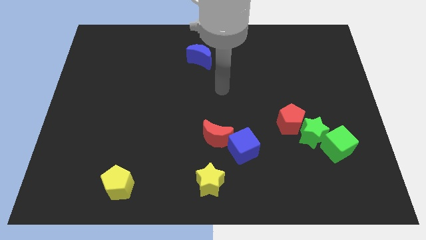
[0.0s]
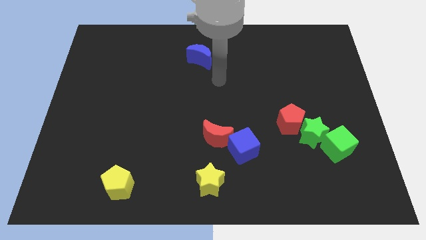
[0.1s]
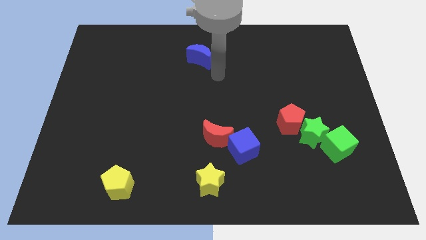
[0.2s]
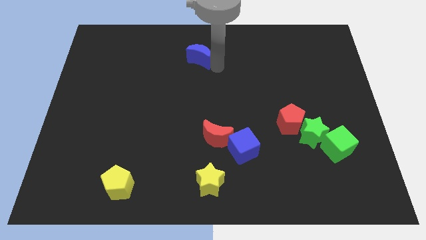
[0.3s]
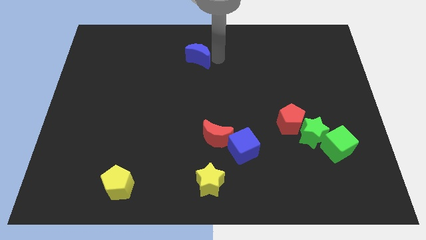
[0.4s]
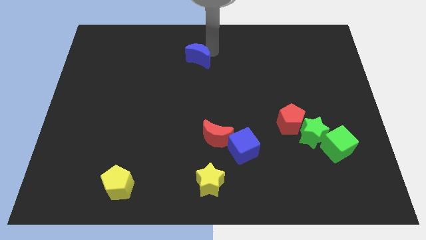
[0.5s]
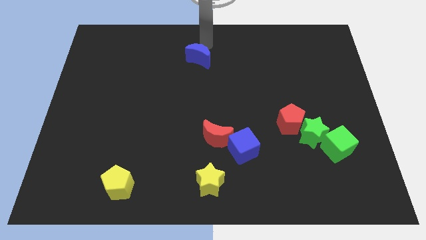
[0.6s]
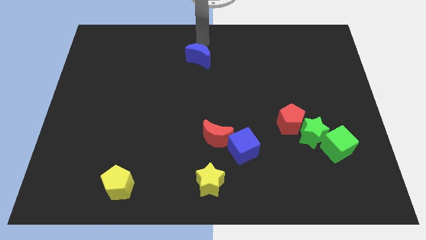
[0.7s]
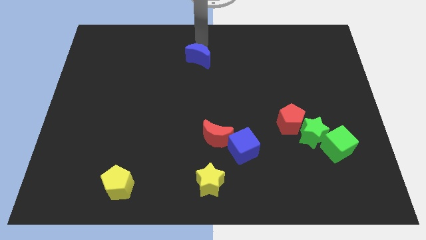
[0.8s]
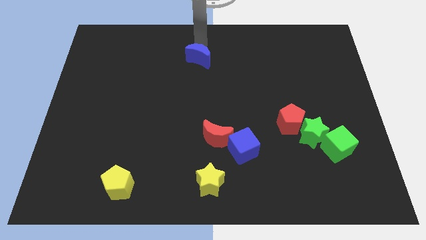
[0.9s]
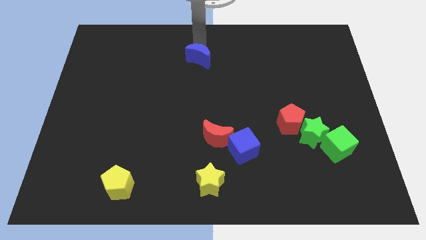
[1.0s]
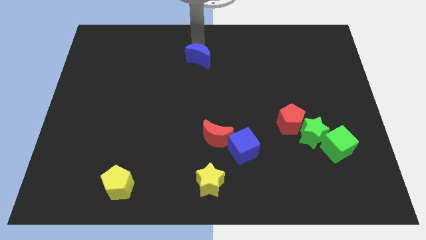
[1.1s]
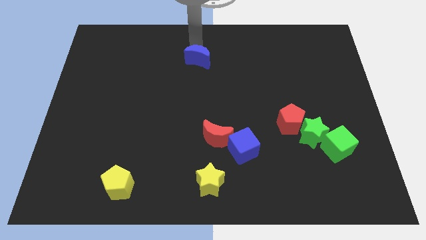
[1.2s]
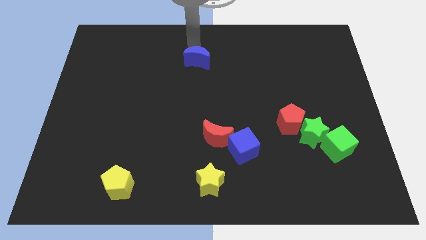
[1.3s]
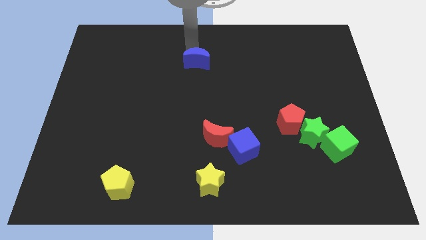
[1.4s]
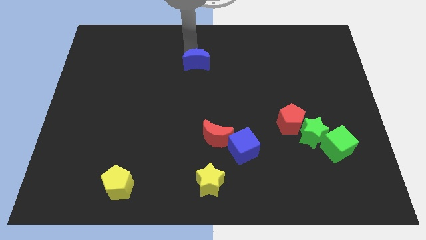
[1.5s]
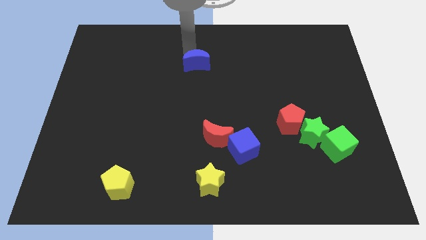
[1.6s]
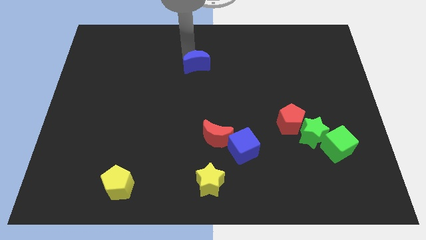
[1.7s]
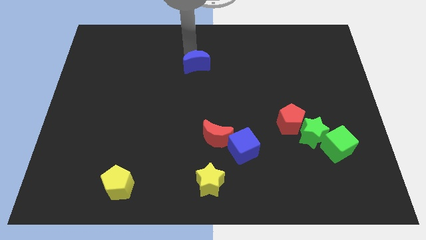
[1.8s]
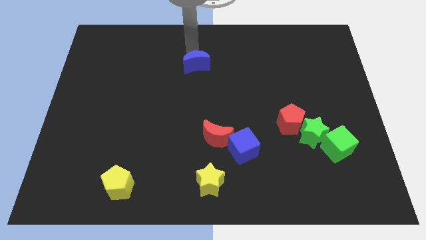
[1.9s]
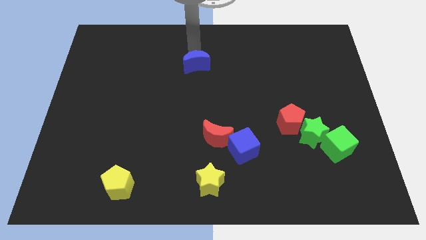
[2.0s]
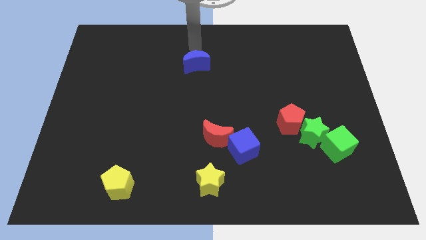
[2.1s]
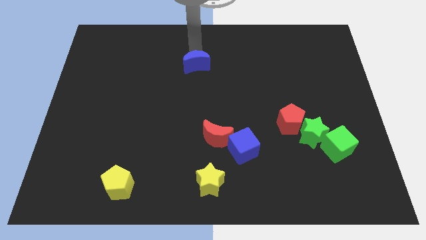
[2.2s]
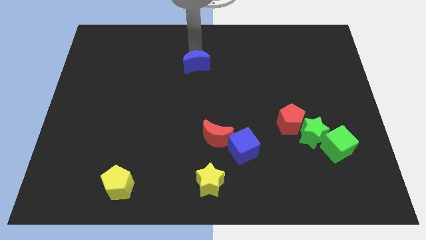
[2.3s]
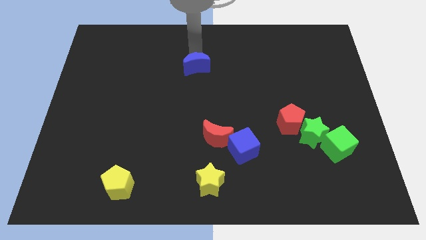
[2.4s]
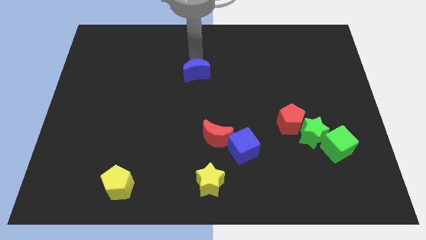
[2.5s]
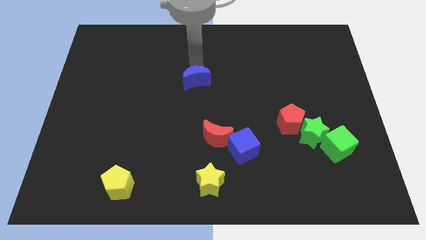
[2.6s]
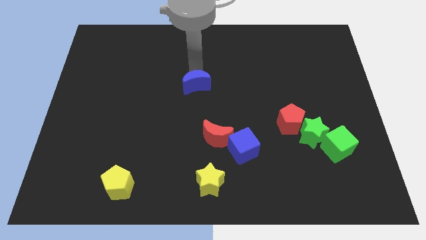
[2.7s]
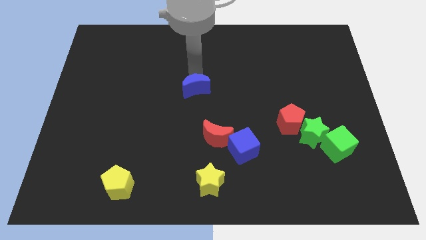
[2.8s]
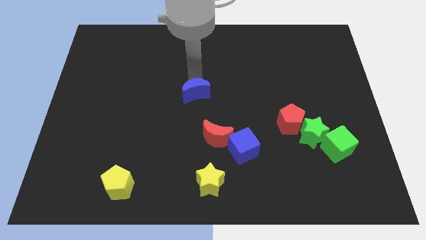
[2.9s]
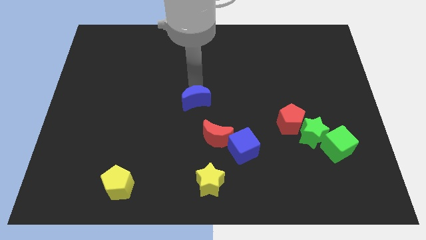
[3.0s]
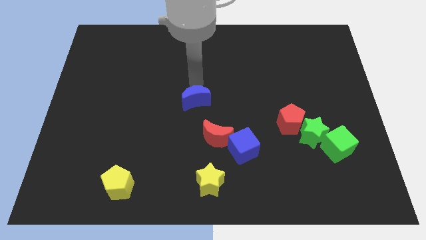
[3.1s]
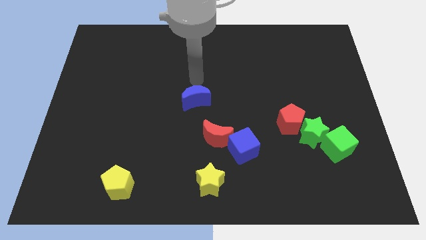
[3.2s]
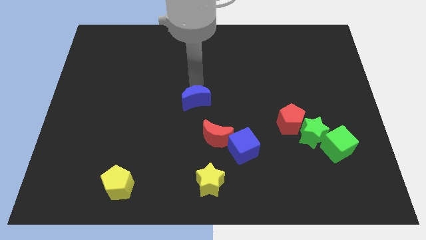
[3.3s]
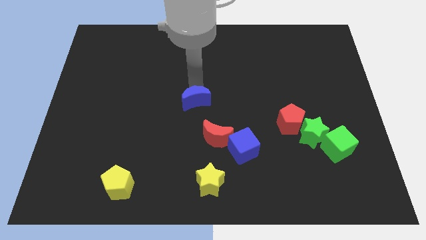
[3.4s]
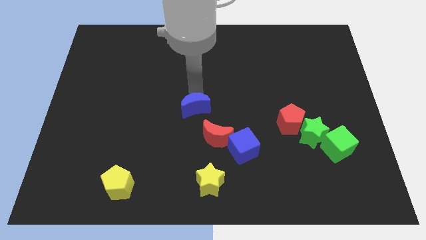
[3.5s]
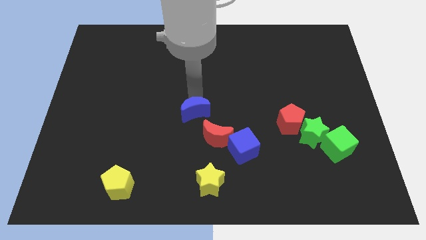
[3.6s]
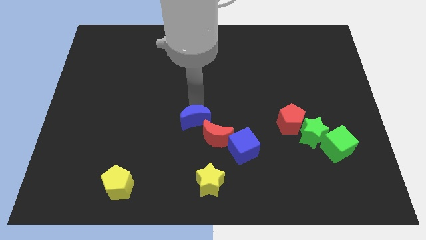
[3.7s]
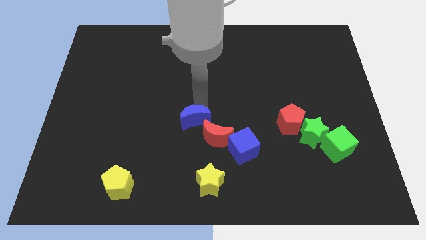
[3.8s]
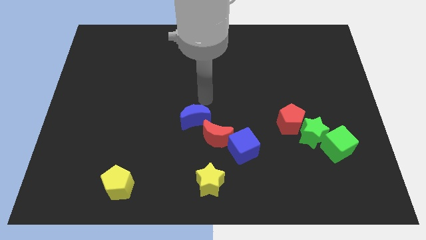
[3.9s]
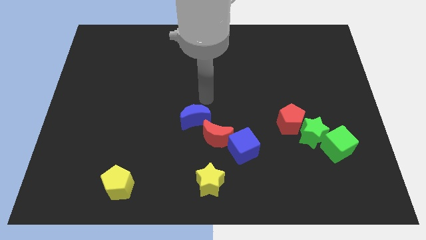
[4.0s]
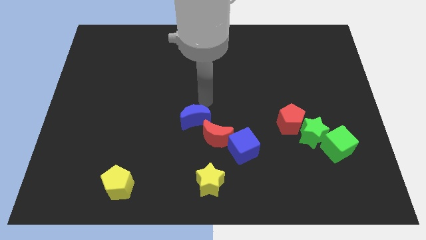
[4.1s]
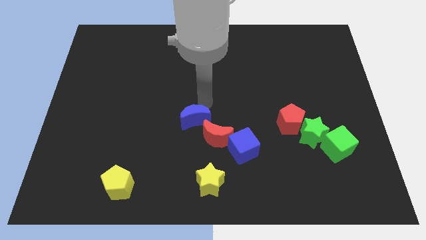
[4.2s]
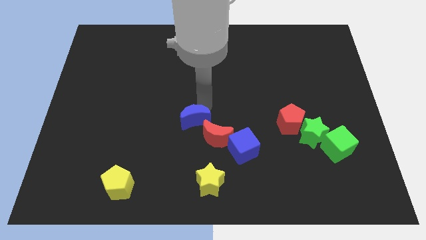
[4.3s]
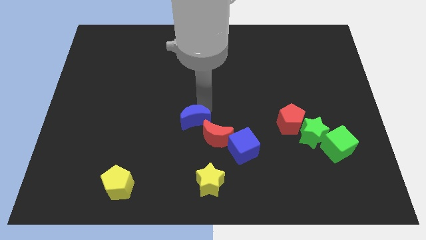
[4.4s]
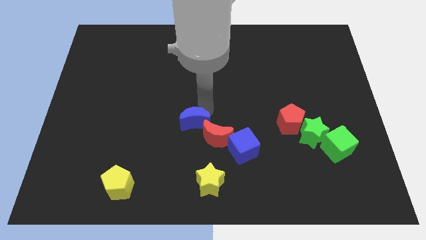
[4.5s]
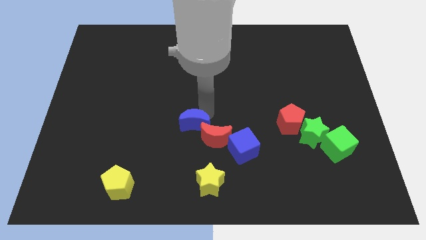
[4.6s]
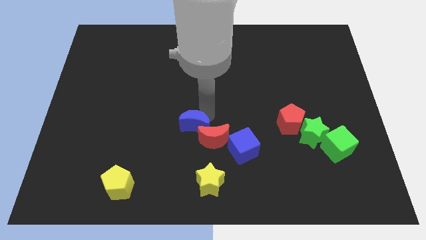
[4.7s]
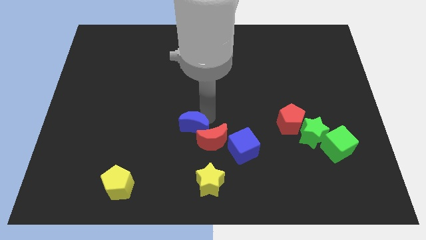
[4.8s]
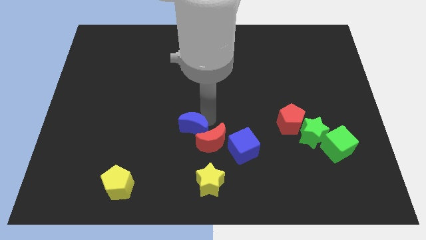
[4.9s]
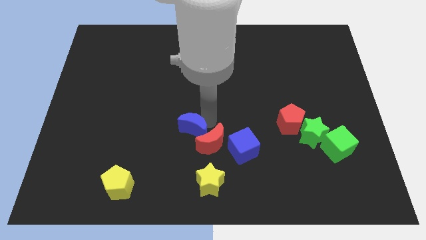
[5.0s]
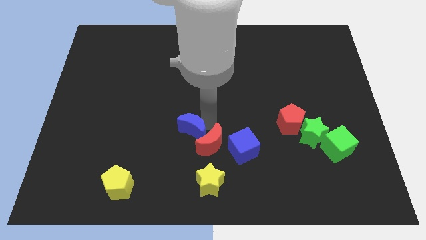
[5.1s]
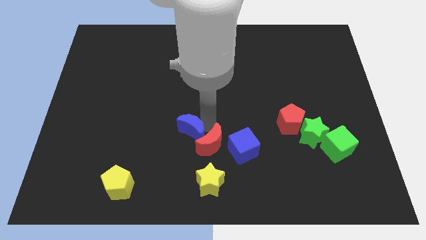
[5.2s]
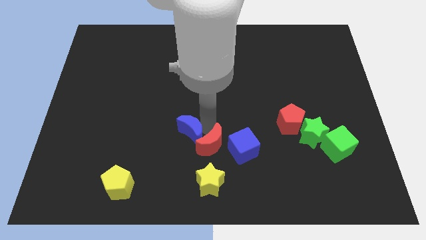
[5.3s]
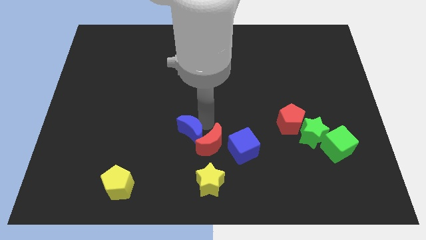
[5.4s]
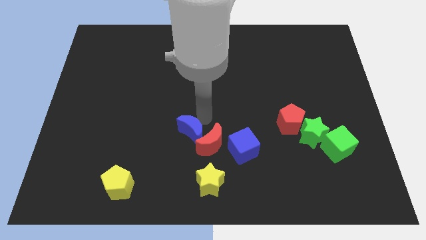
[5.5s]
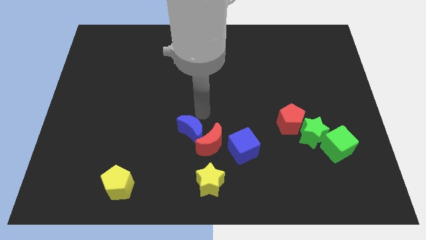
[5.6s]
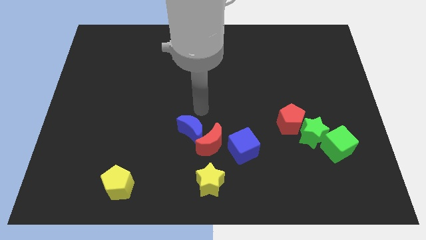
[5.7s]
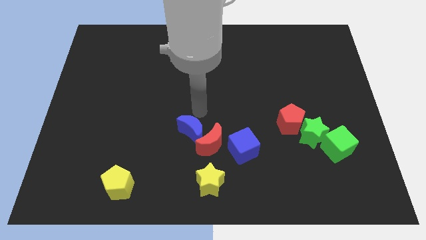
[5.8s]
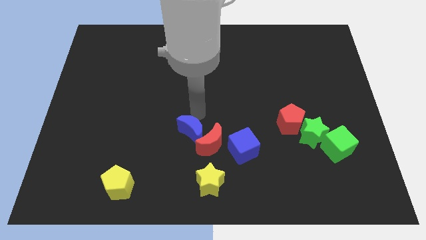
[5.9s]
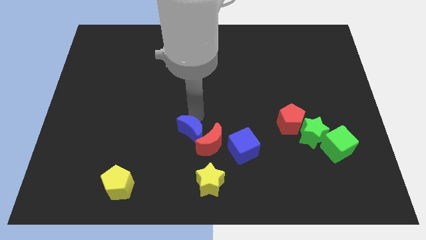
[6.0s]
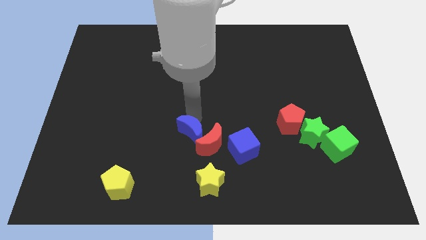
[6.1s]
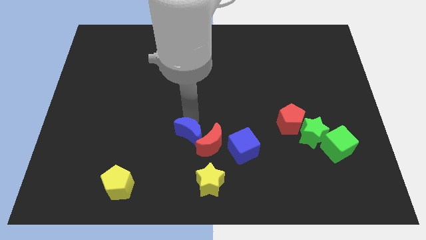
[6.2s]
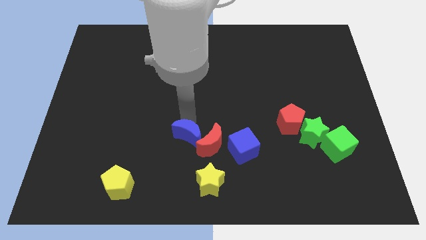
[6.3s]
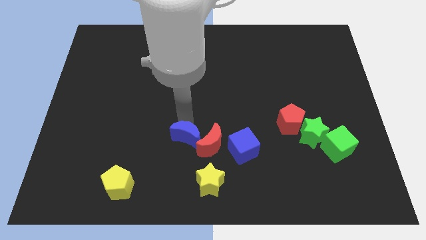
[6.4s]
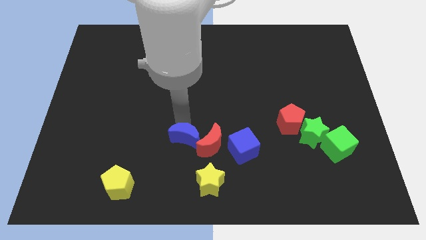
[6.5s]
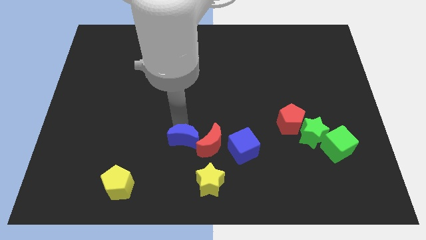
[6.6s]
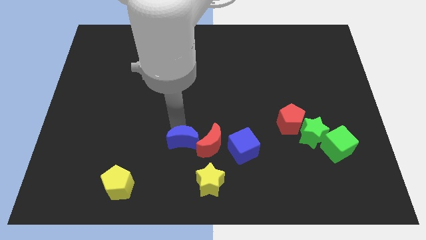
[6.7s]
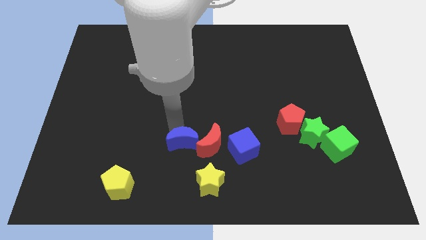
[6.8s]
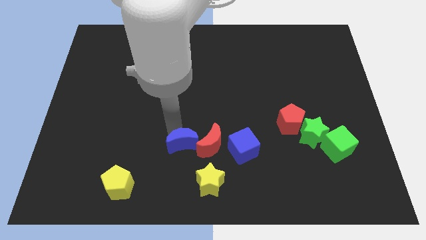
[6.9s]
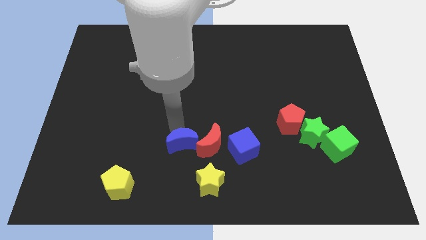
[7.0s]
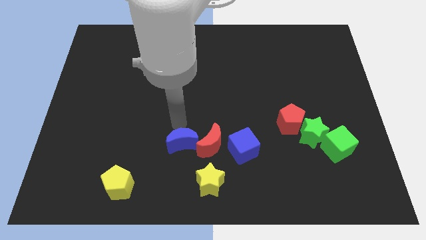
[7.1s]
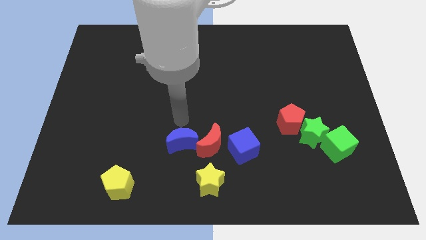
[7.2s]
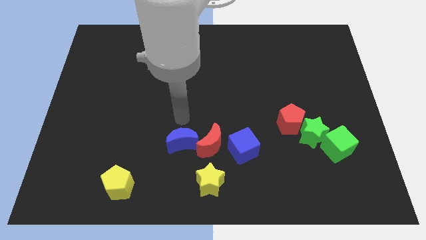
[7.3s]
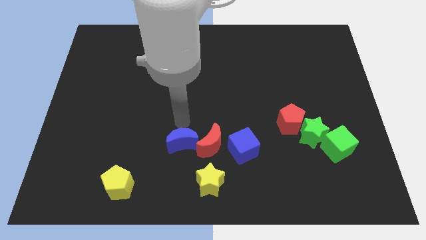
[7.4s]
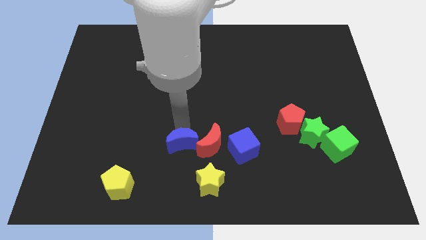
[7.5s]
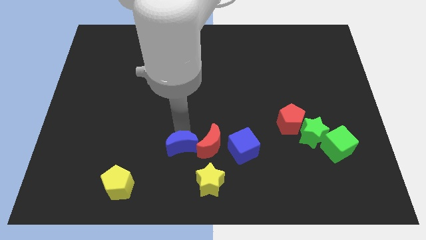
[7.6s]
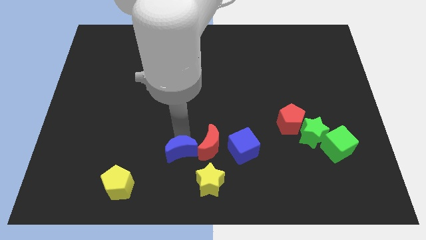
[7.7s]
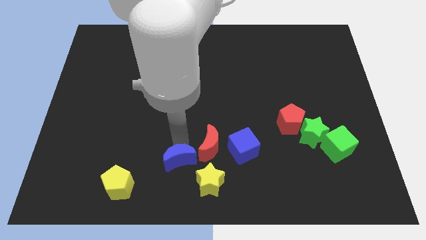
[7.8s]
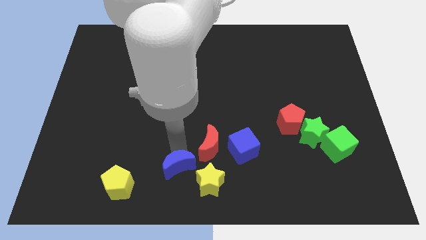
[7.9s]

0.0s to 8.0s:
move the blue moon to the bottom
